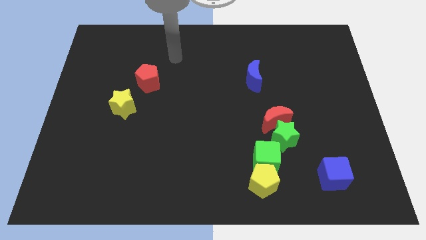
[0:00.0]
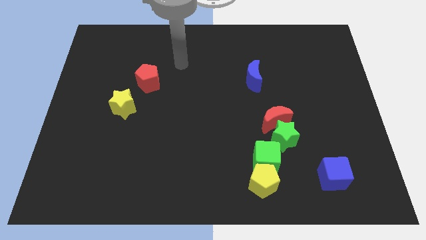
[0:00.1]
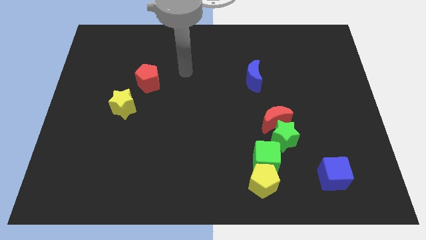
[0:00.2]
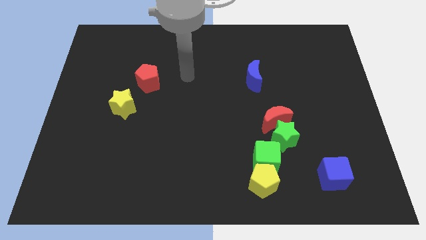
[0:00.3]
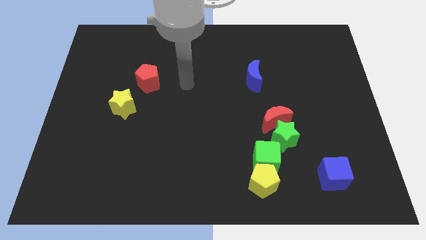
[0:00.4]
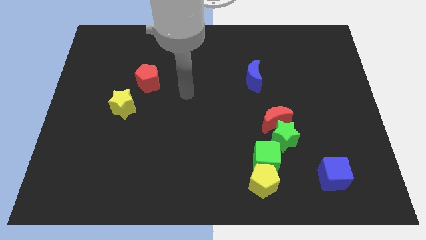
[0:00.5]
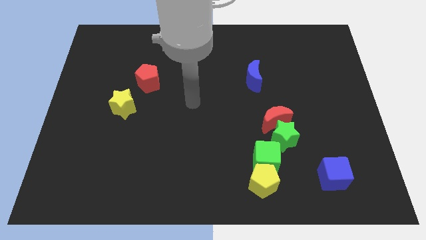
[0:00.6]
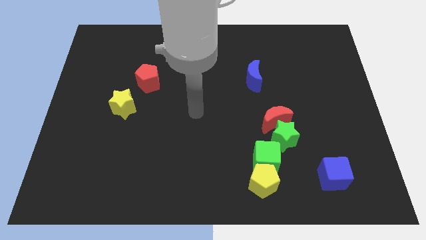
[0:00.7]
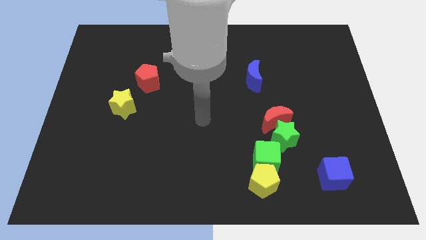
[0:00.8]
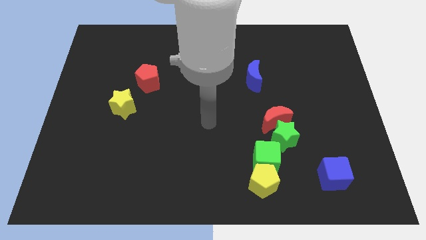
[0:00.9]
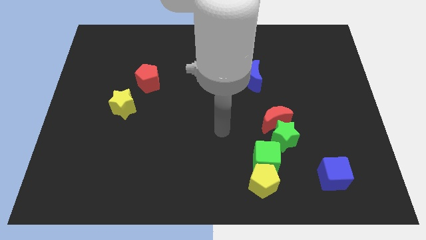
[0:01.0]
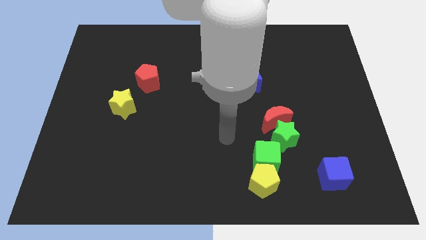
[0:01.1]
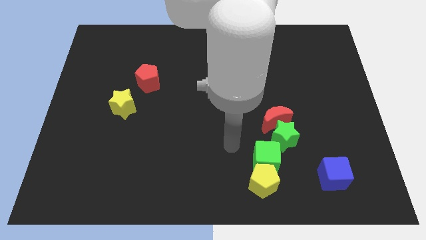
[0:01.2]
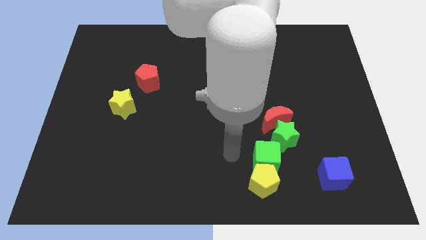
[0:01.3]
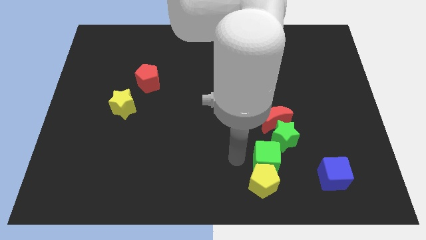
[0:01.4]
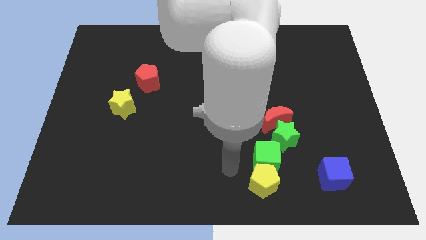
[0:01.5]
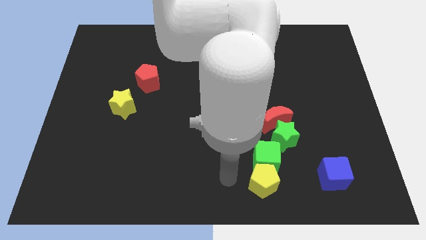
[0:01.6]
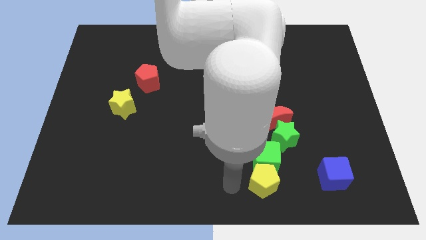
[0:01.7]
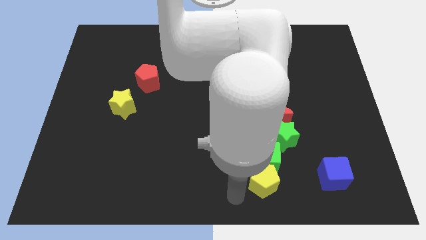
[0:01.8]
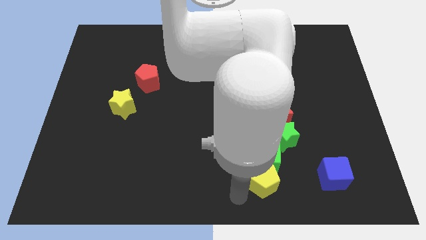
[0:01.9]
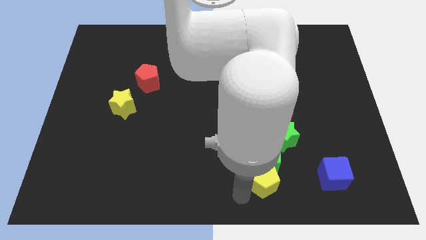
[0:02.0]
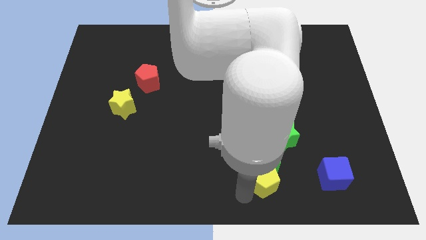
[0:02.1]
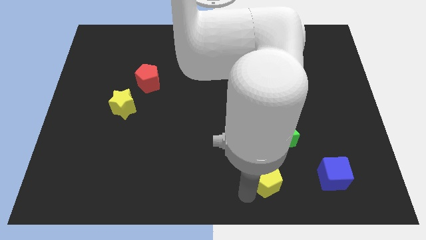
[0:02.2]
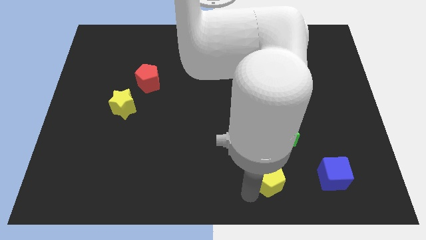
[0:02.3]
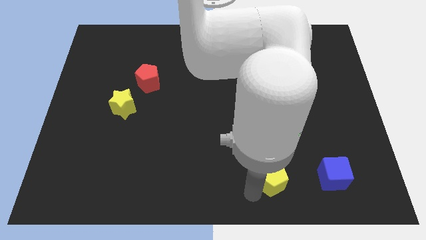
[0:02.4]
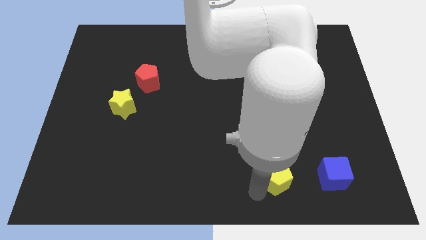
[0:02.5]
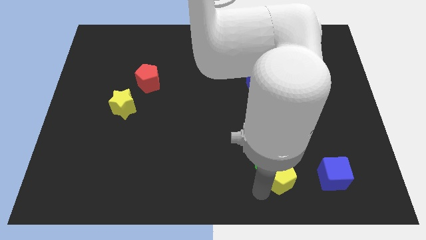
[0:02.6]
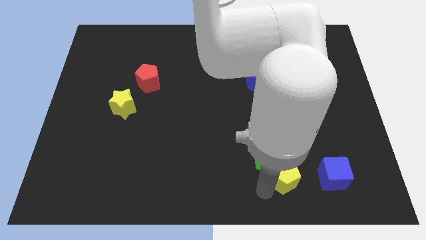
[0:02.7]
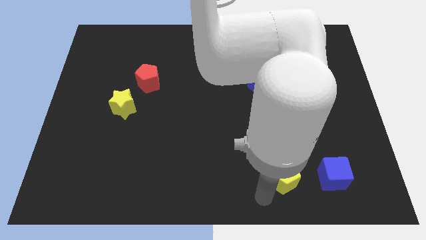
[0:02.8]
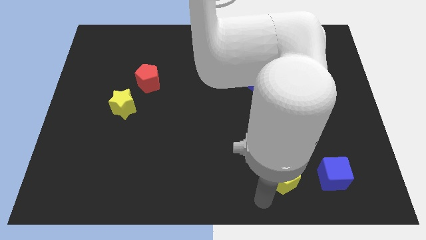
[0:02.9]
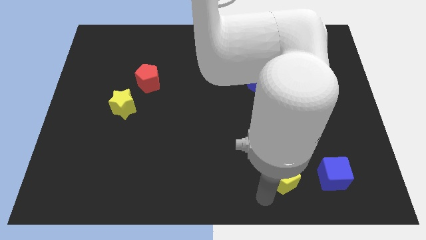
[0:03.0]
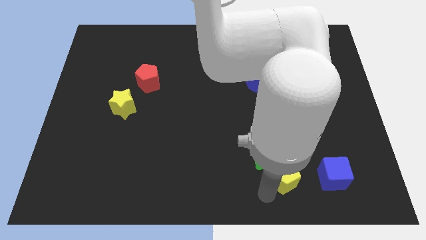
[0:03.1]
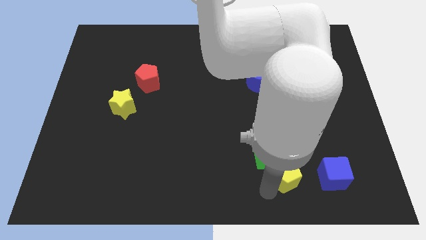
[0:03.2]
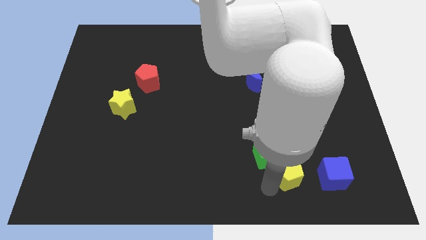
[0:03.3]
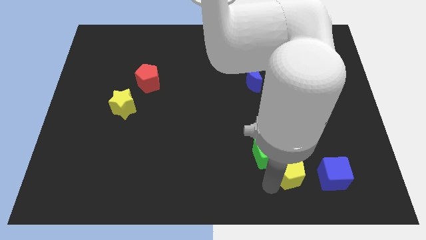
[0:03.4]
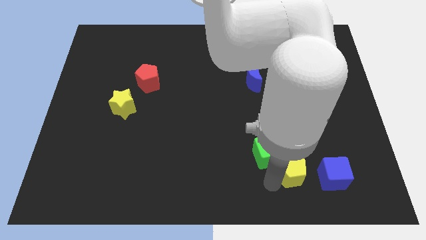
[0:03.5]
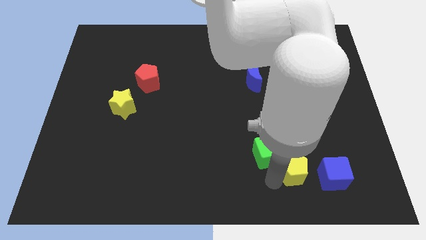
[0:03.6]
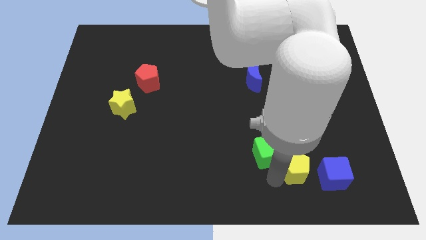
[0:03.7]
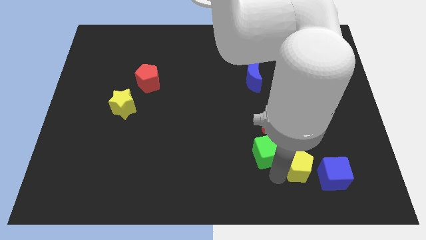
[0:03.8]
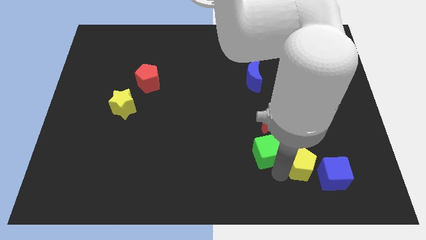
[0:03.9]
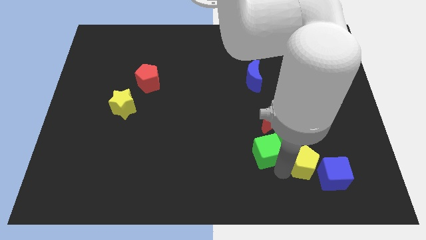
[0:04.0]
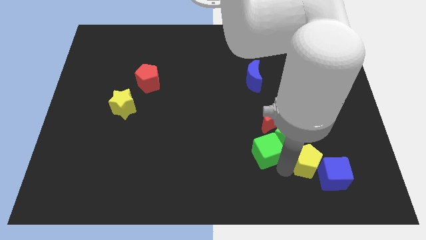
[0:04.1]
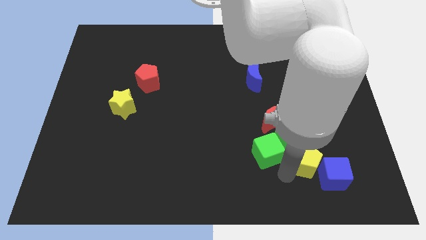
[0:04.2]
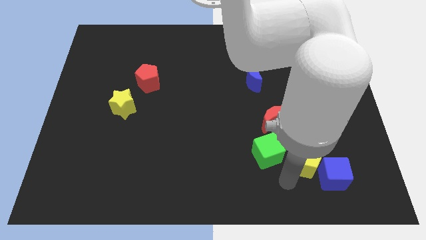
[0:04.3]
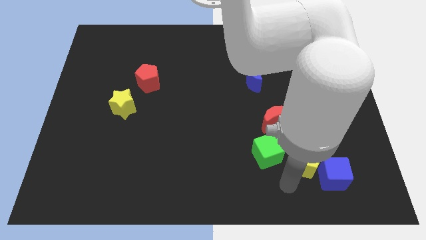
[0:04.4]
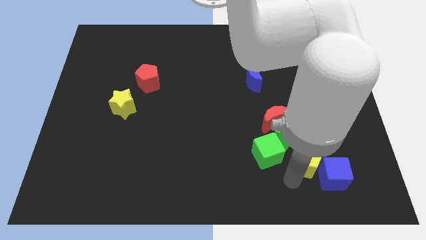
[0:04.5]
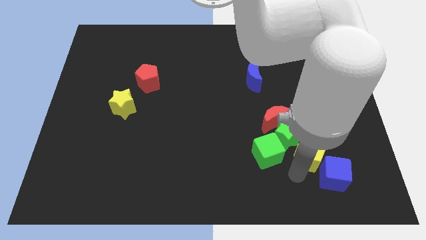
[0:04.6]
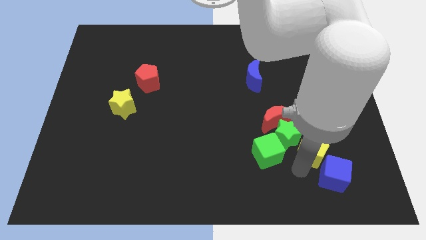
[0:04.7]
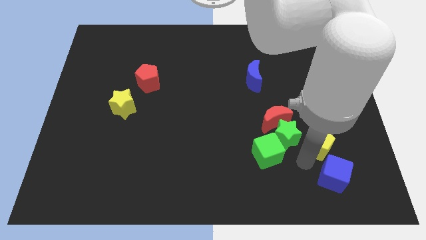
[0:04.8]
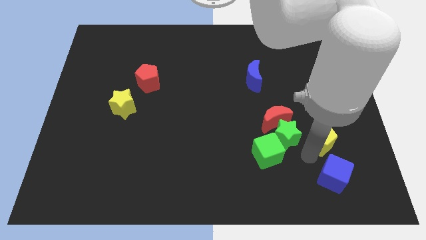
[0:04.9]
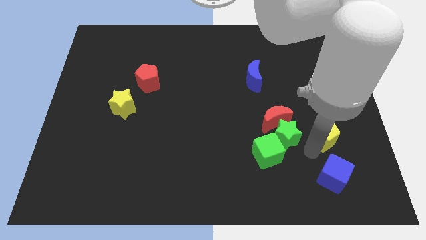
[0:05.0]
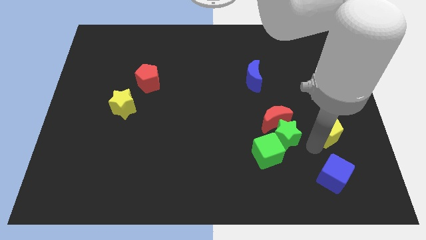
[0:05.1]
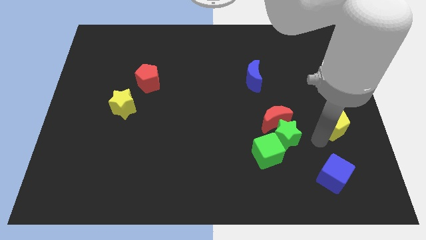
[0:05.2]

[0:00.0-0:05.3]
put the yellow pentagon to the right side of the board
